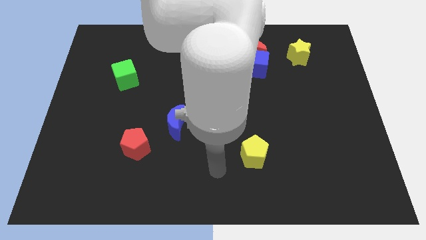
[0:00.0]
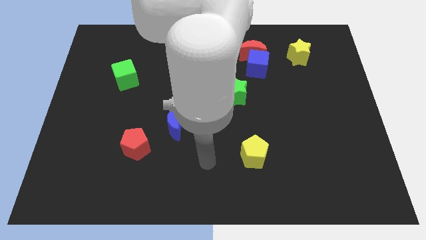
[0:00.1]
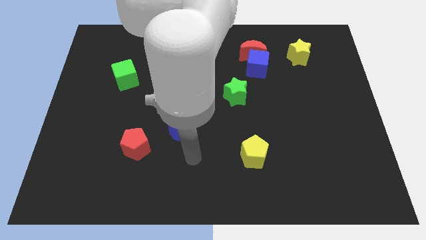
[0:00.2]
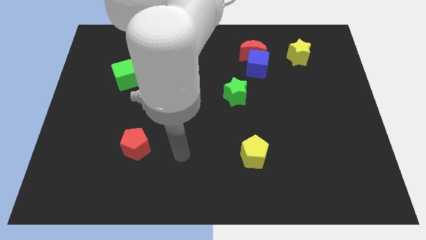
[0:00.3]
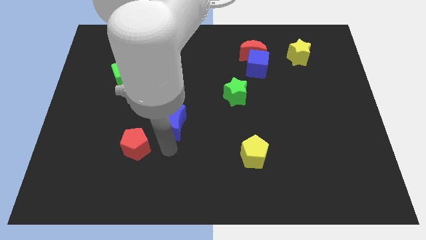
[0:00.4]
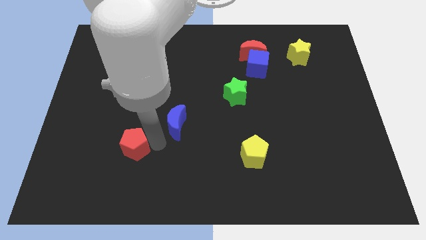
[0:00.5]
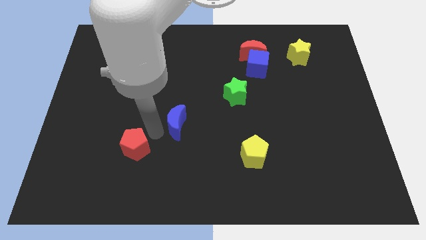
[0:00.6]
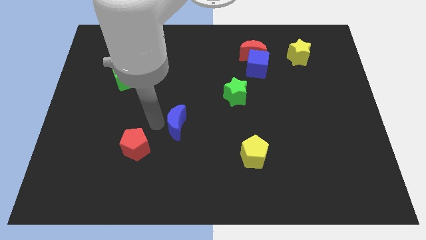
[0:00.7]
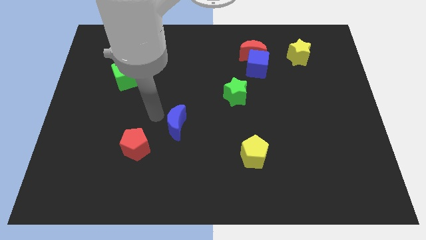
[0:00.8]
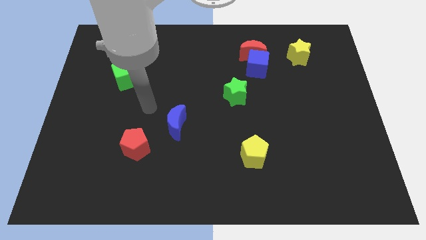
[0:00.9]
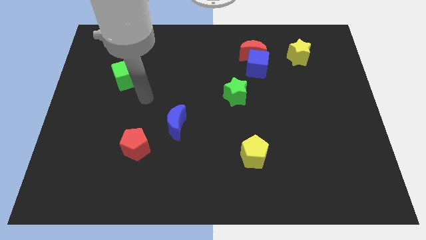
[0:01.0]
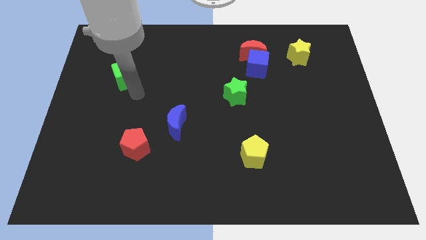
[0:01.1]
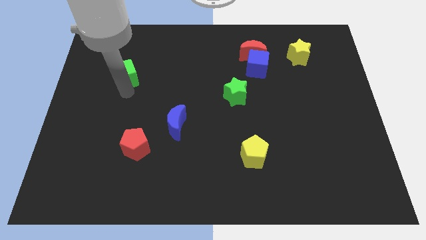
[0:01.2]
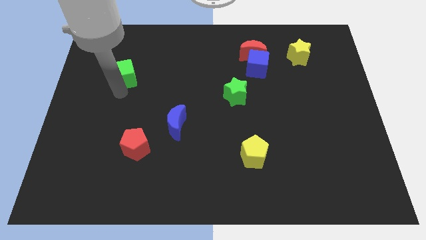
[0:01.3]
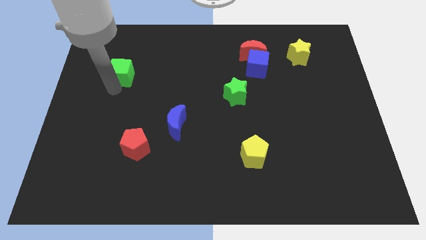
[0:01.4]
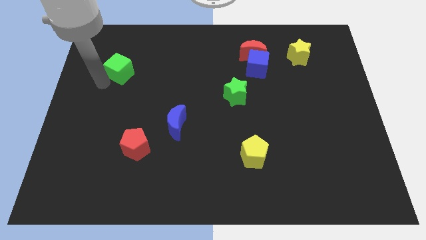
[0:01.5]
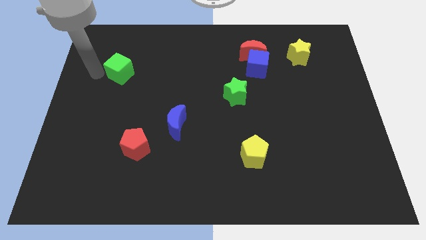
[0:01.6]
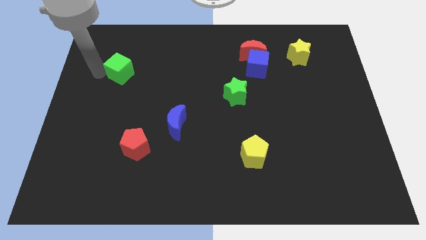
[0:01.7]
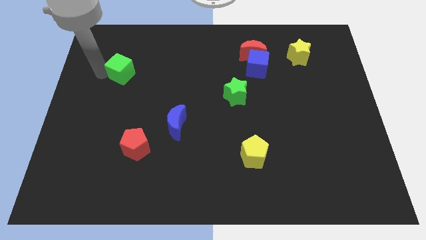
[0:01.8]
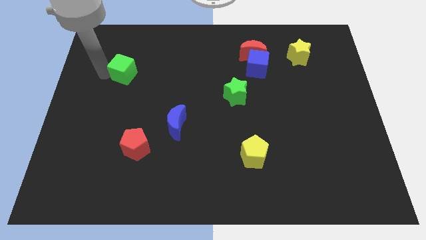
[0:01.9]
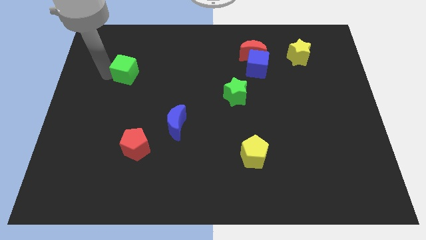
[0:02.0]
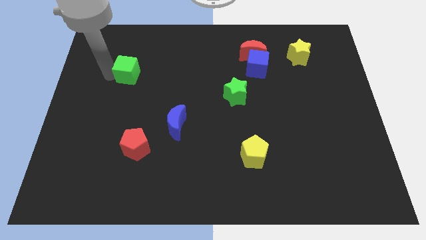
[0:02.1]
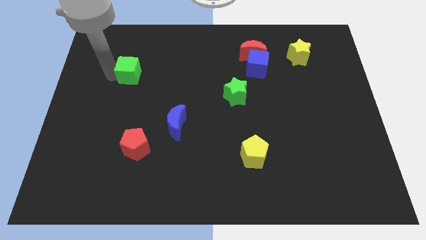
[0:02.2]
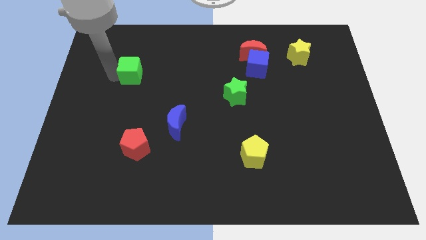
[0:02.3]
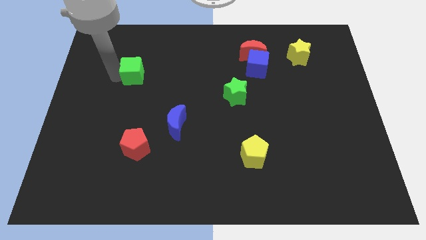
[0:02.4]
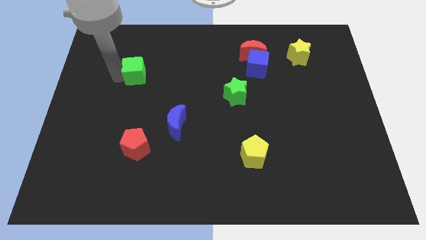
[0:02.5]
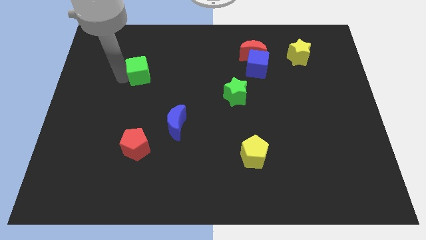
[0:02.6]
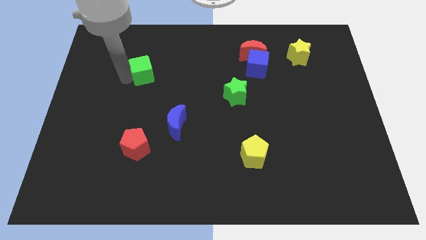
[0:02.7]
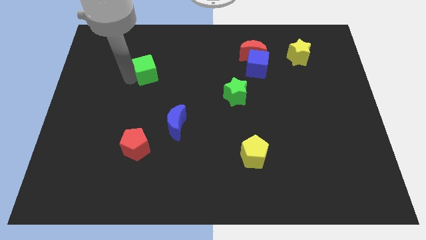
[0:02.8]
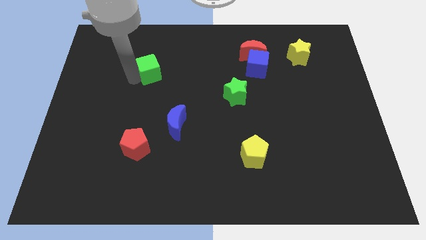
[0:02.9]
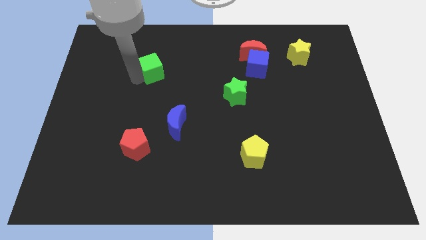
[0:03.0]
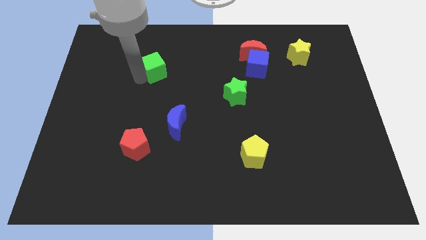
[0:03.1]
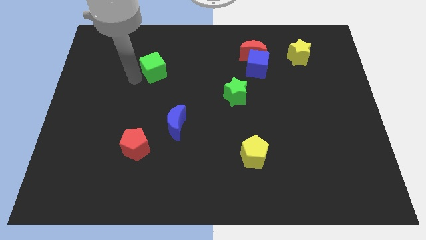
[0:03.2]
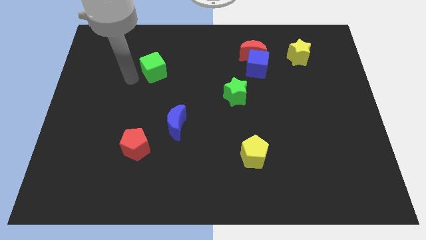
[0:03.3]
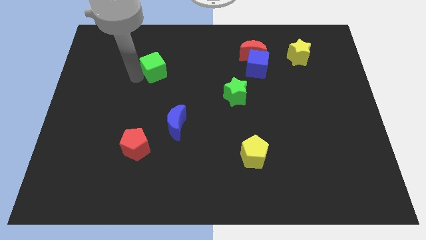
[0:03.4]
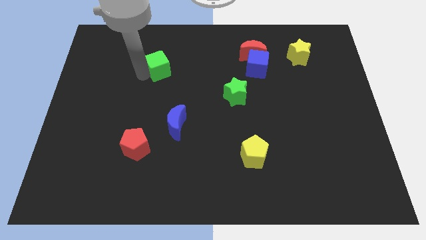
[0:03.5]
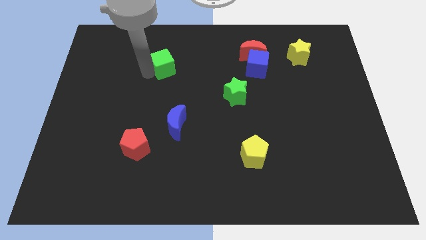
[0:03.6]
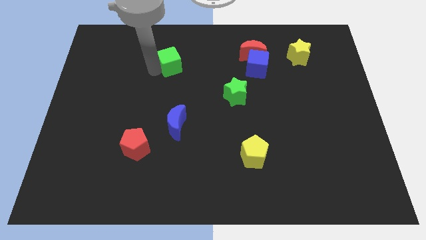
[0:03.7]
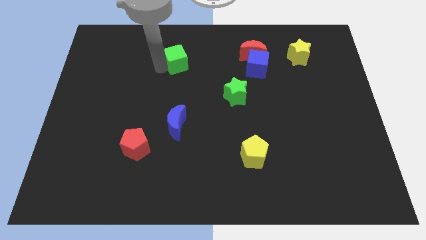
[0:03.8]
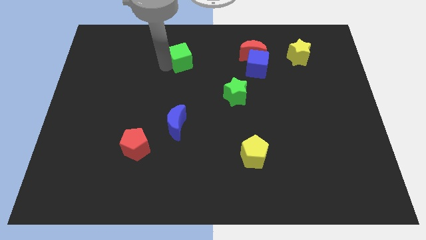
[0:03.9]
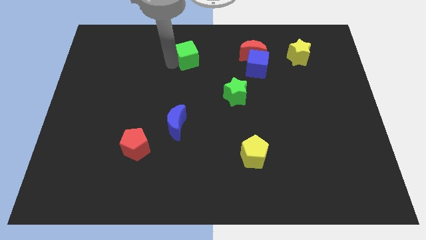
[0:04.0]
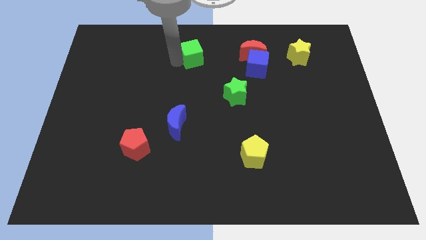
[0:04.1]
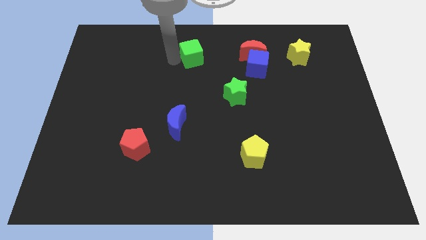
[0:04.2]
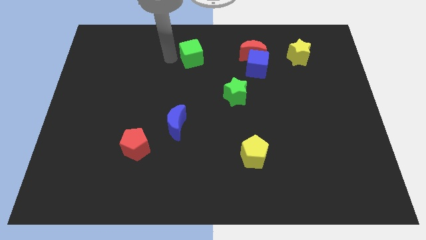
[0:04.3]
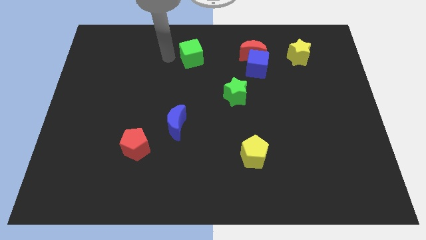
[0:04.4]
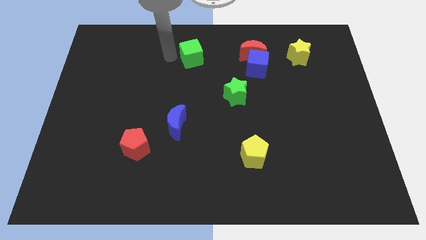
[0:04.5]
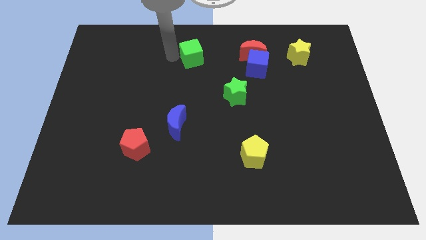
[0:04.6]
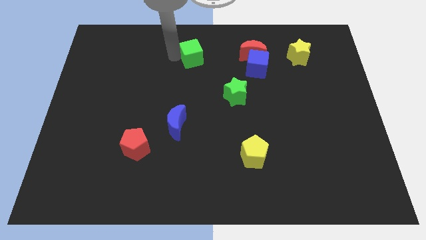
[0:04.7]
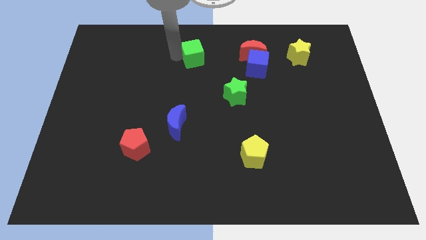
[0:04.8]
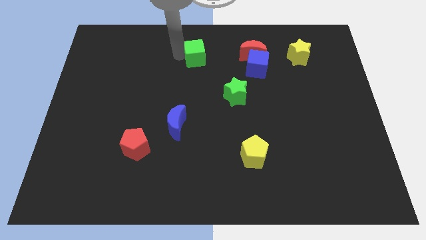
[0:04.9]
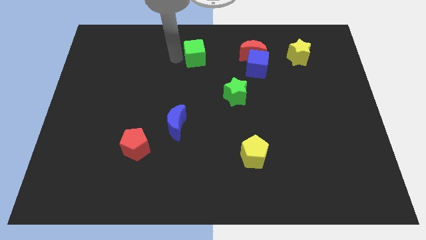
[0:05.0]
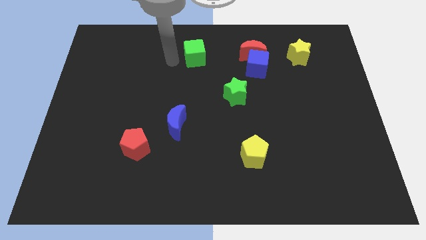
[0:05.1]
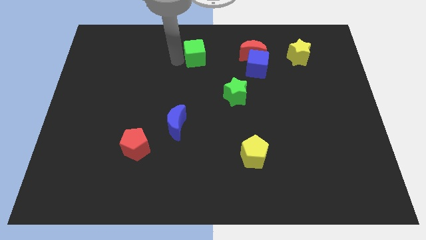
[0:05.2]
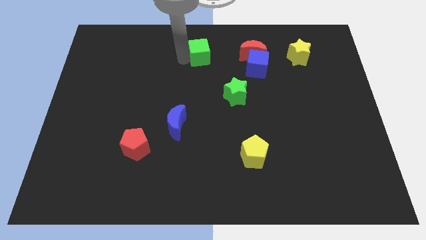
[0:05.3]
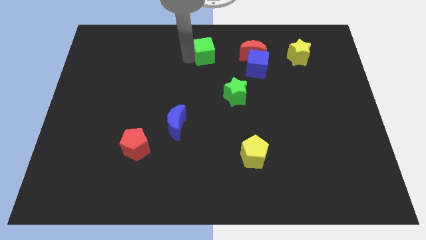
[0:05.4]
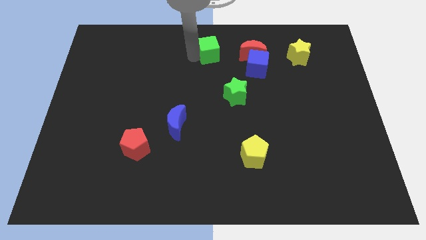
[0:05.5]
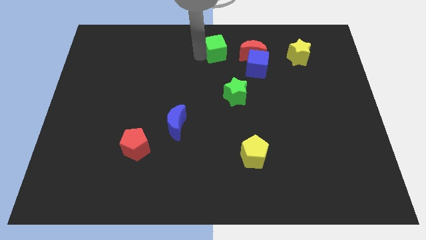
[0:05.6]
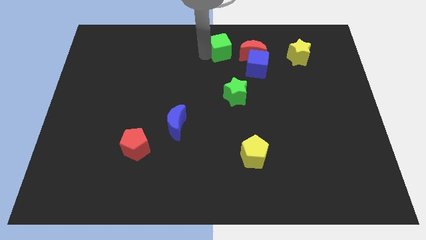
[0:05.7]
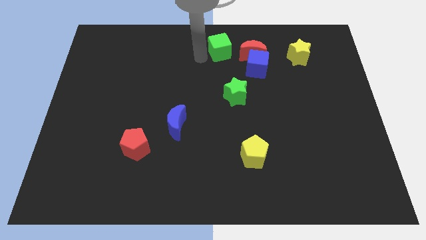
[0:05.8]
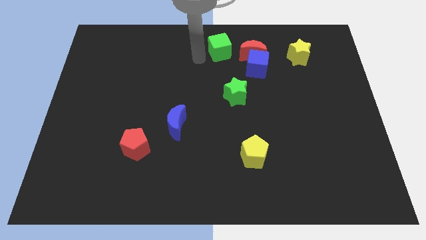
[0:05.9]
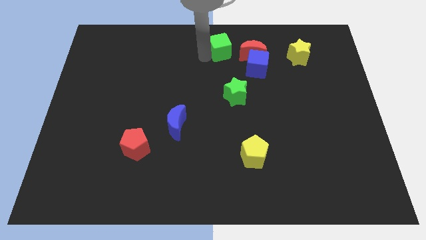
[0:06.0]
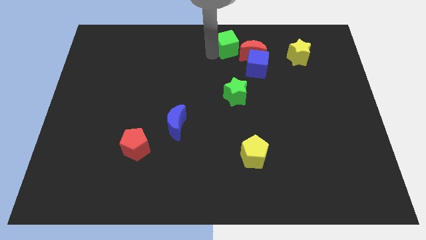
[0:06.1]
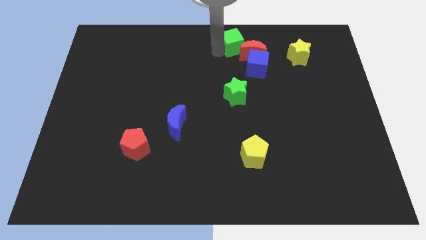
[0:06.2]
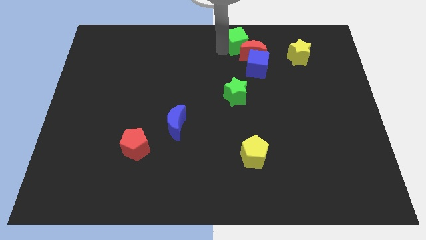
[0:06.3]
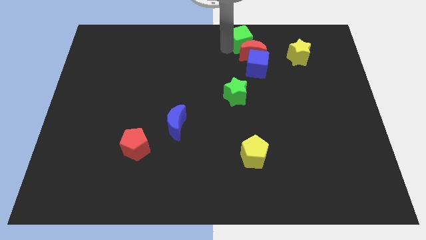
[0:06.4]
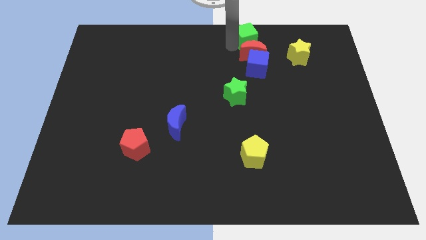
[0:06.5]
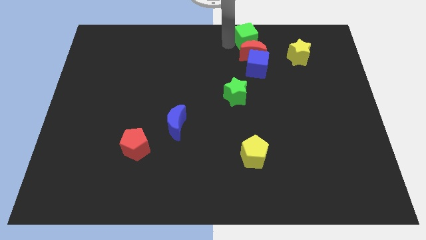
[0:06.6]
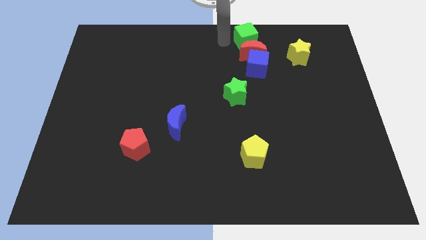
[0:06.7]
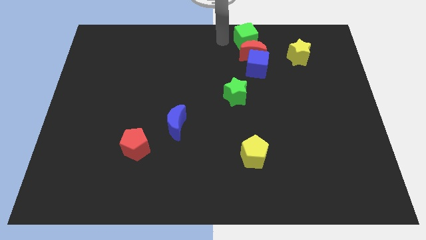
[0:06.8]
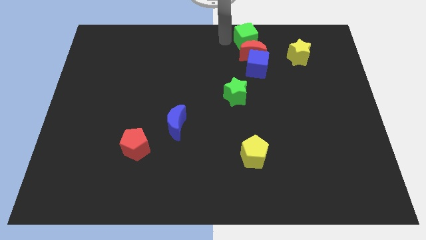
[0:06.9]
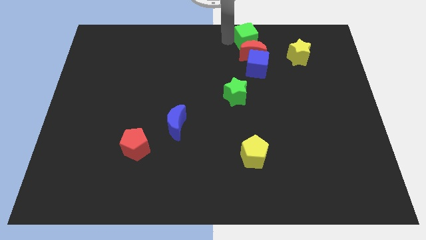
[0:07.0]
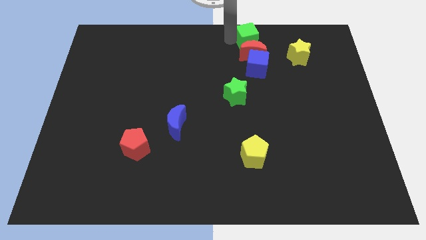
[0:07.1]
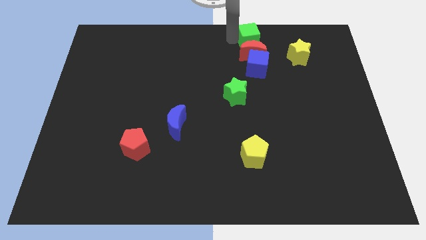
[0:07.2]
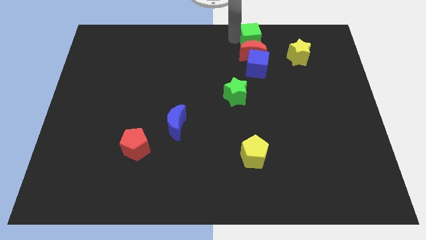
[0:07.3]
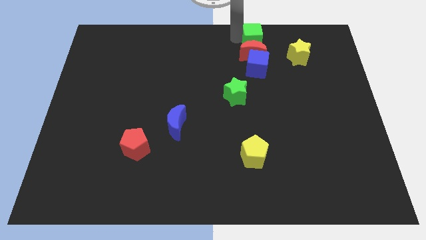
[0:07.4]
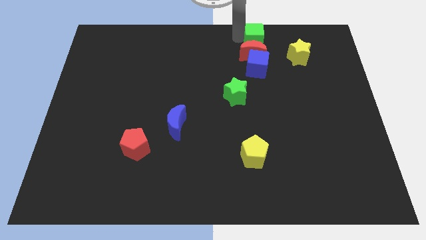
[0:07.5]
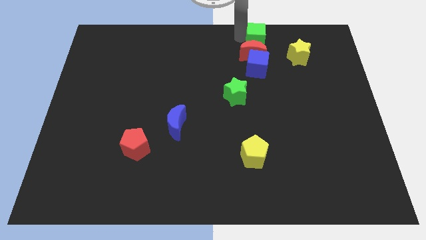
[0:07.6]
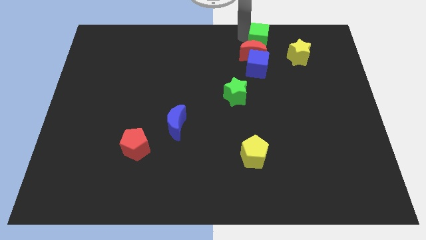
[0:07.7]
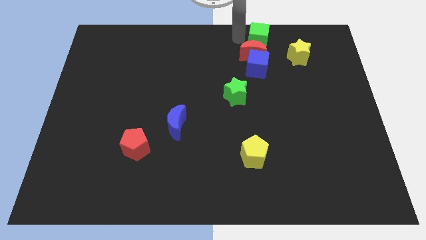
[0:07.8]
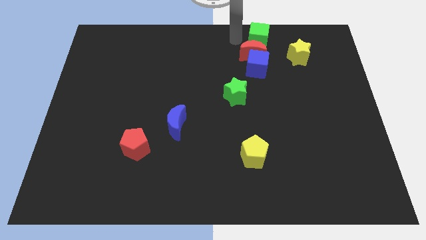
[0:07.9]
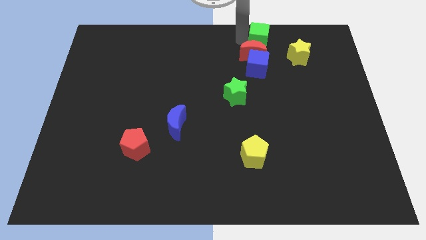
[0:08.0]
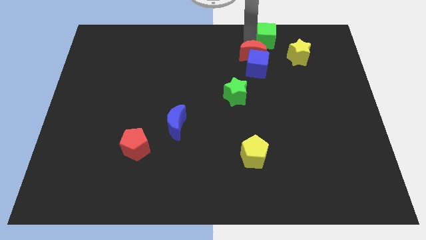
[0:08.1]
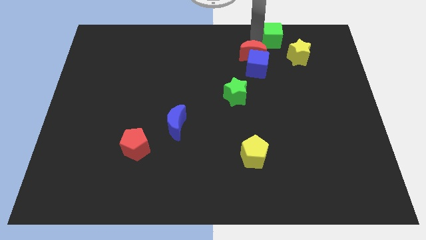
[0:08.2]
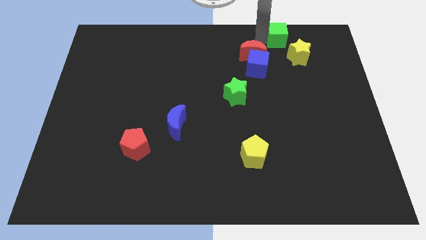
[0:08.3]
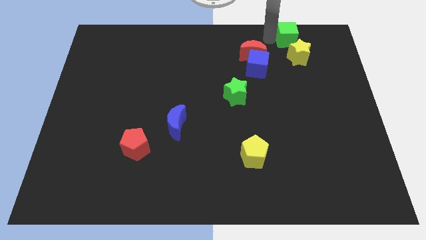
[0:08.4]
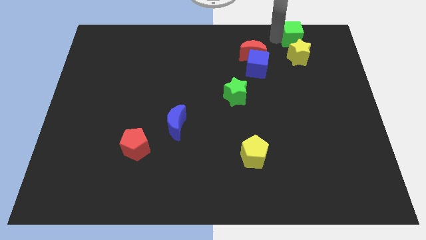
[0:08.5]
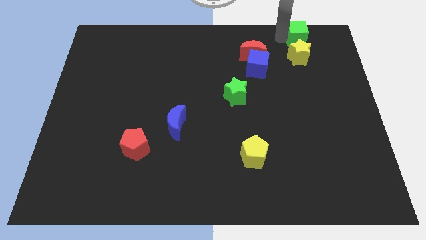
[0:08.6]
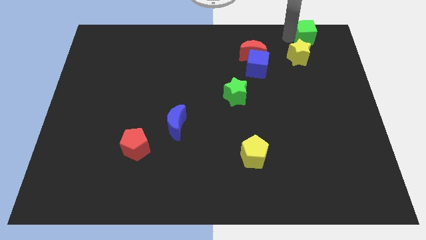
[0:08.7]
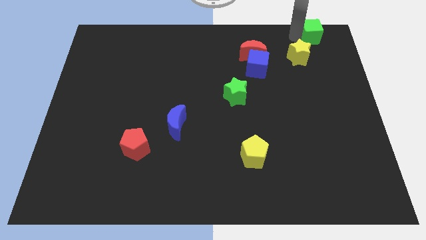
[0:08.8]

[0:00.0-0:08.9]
push the green cube to the top right corner
